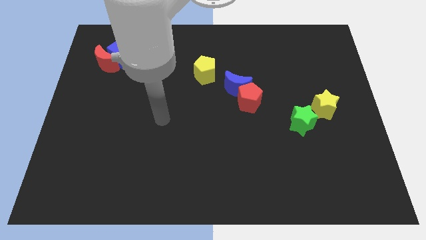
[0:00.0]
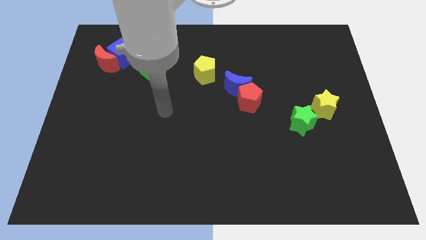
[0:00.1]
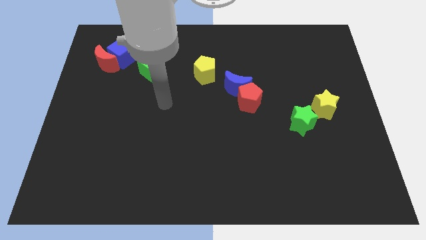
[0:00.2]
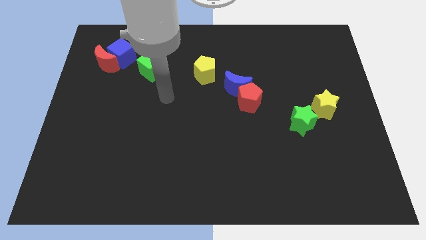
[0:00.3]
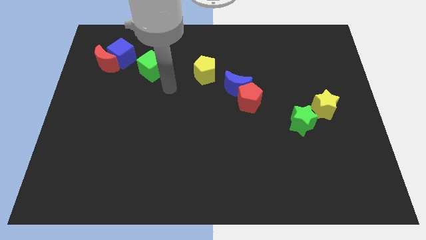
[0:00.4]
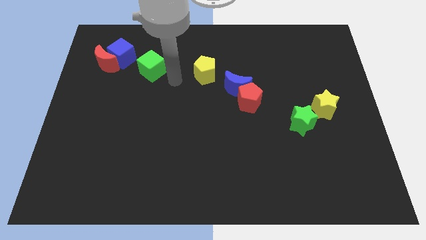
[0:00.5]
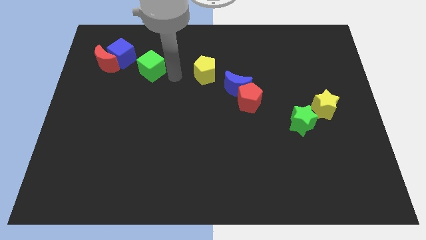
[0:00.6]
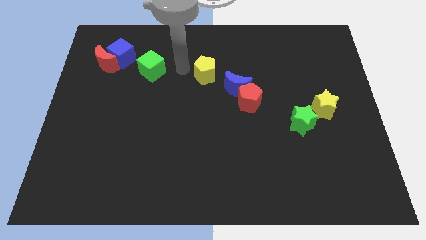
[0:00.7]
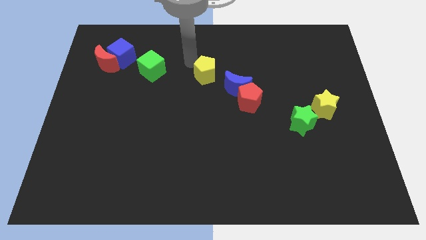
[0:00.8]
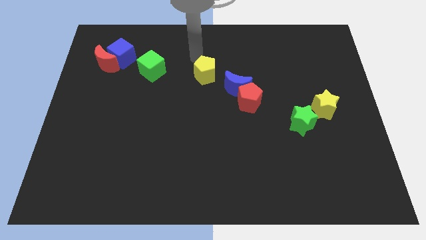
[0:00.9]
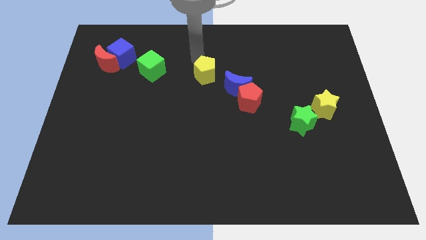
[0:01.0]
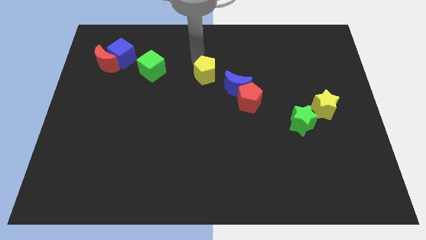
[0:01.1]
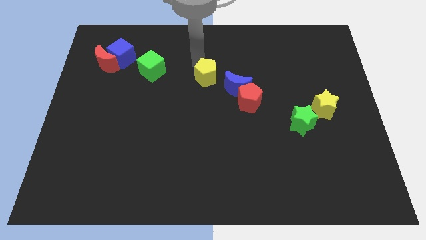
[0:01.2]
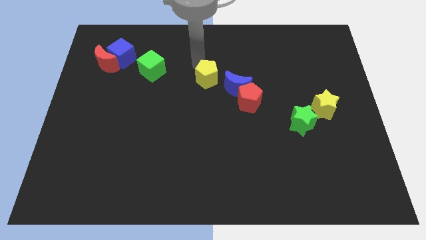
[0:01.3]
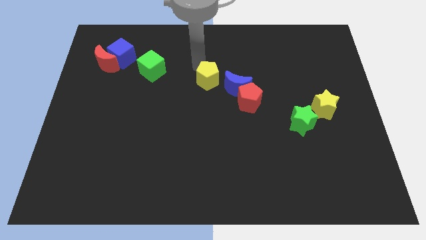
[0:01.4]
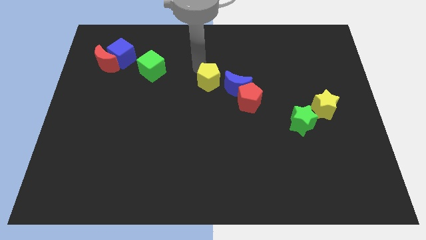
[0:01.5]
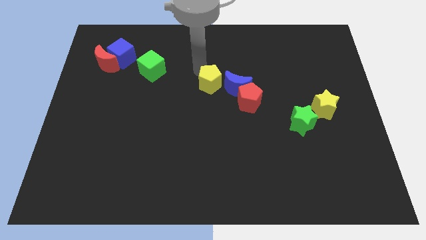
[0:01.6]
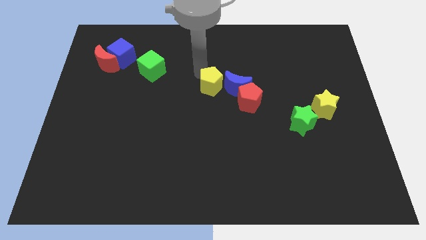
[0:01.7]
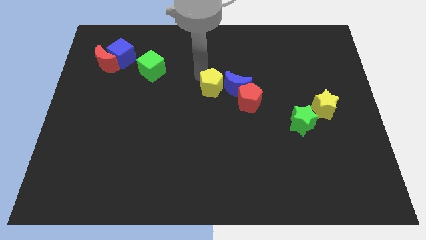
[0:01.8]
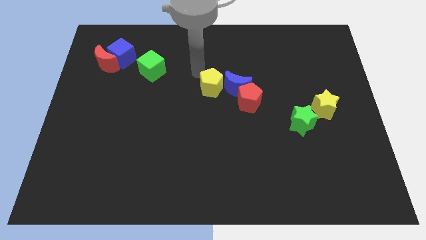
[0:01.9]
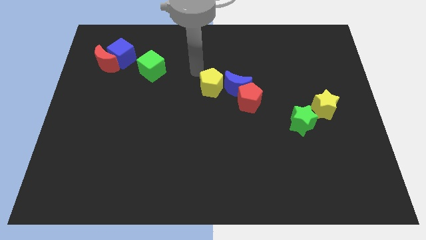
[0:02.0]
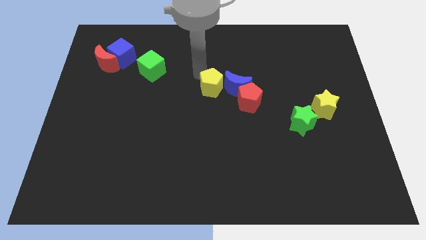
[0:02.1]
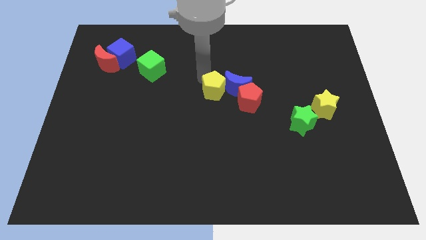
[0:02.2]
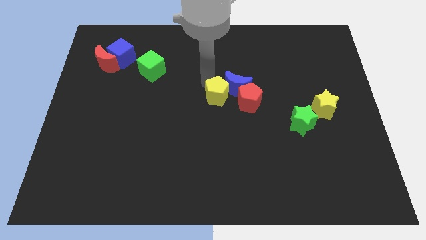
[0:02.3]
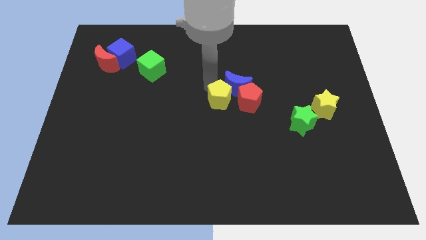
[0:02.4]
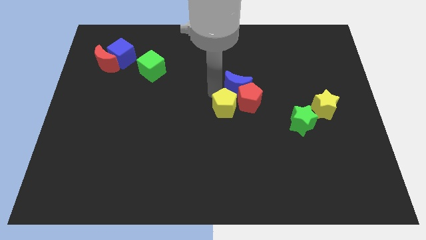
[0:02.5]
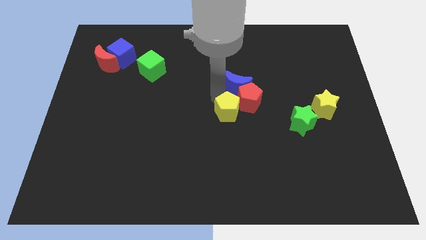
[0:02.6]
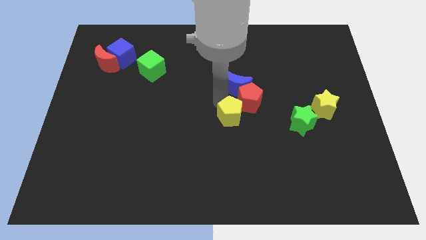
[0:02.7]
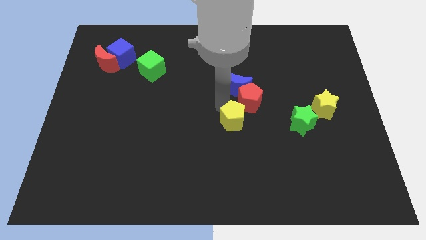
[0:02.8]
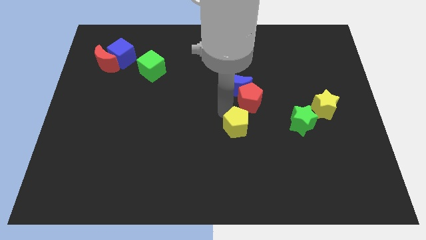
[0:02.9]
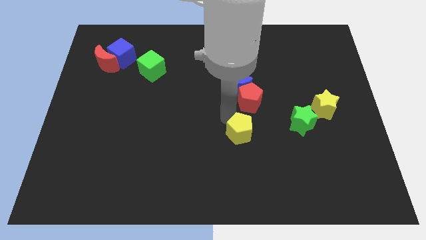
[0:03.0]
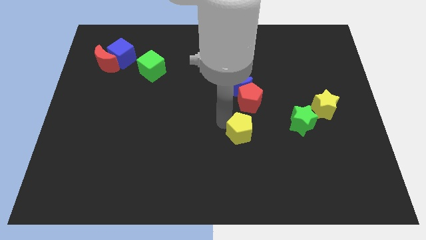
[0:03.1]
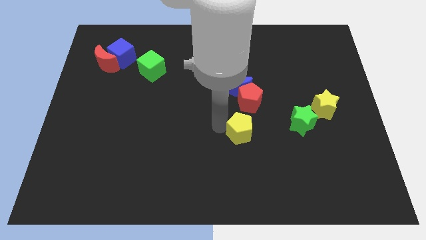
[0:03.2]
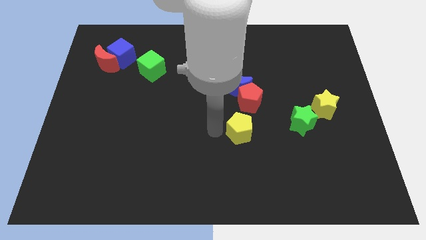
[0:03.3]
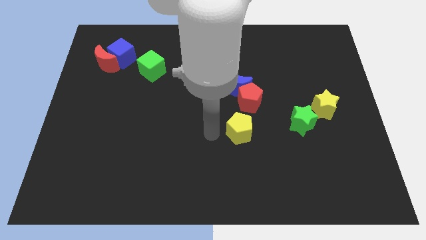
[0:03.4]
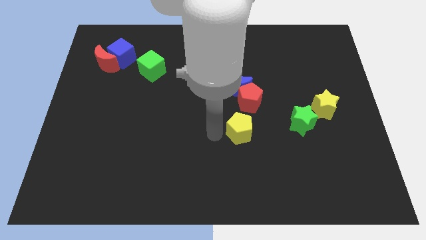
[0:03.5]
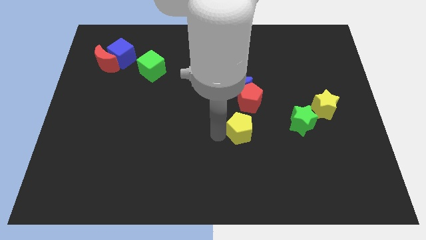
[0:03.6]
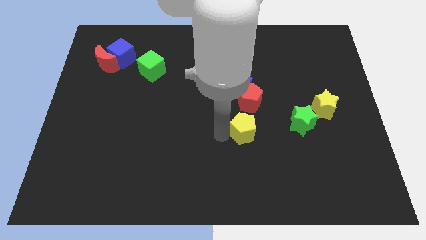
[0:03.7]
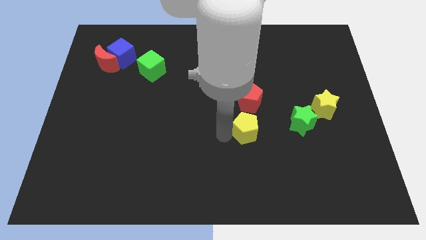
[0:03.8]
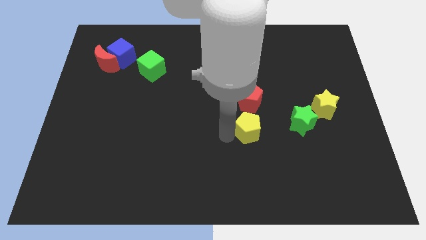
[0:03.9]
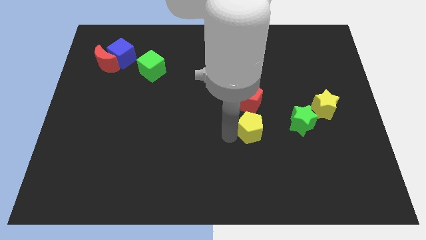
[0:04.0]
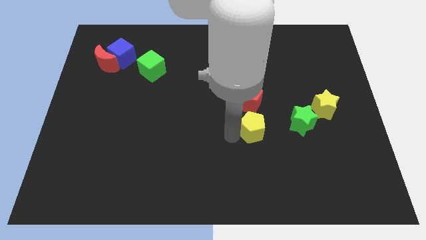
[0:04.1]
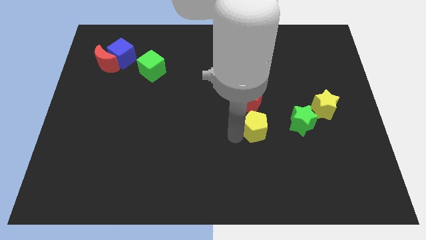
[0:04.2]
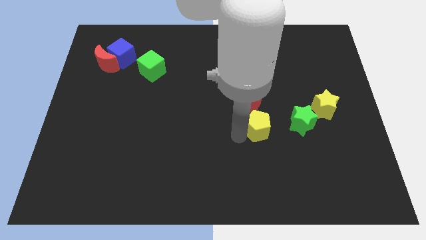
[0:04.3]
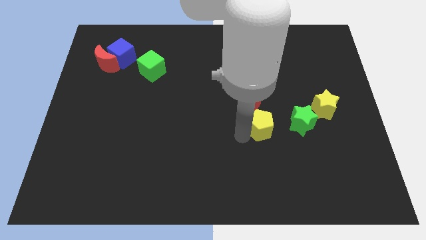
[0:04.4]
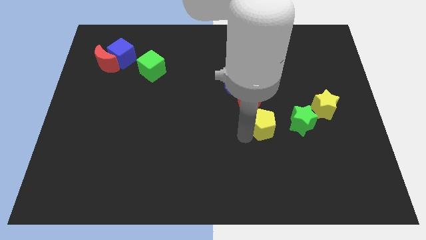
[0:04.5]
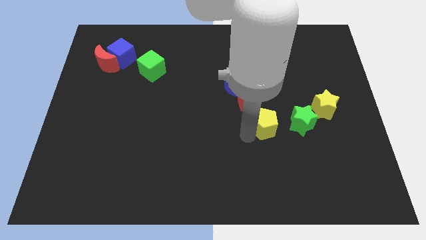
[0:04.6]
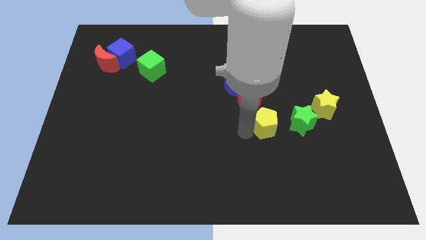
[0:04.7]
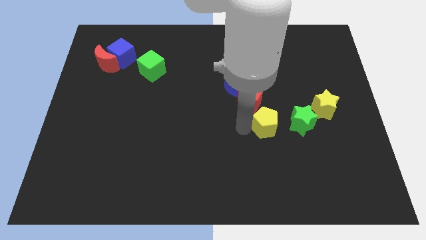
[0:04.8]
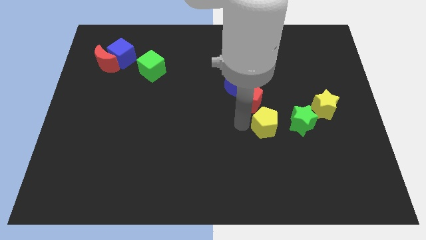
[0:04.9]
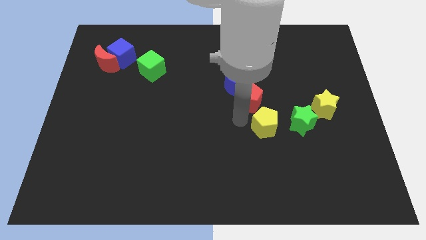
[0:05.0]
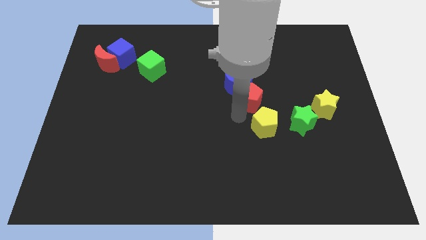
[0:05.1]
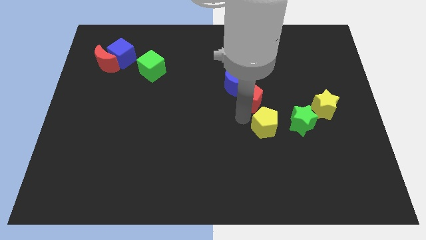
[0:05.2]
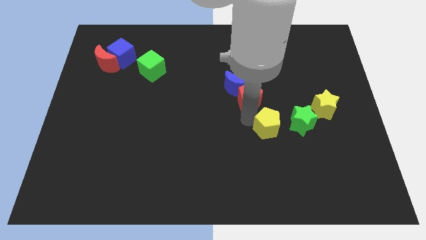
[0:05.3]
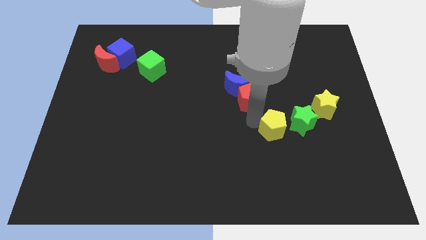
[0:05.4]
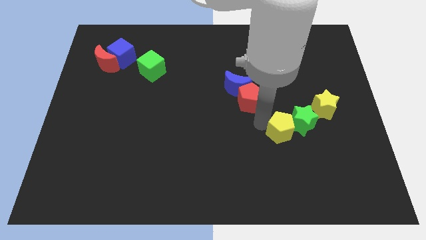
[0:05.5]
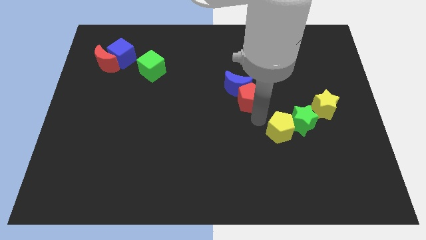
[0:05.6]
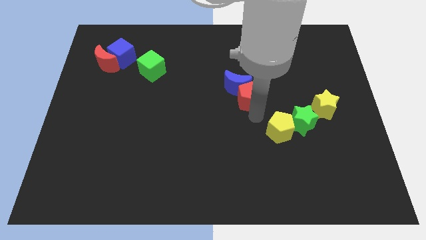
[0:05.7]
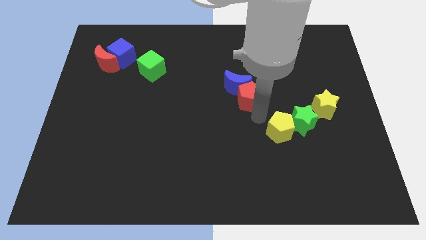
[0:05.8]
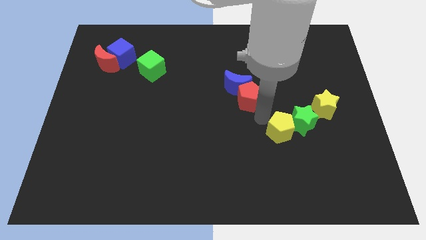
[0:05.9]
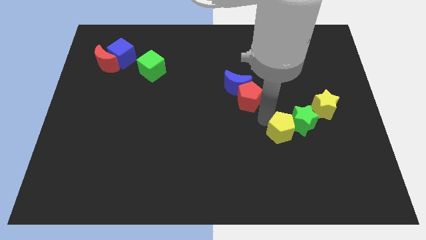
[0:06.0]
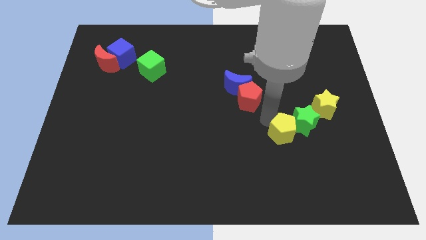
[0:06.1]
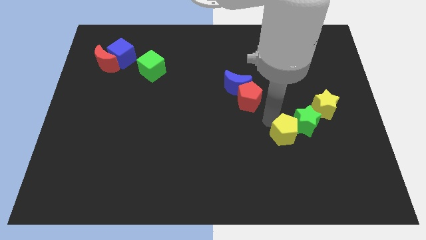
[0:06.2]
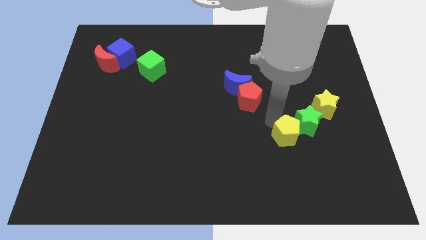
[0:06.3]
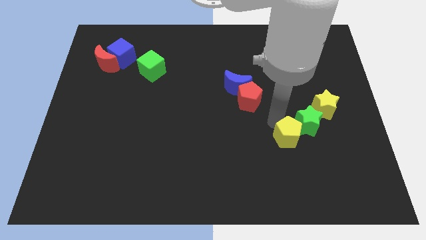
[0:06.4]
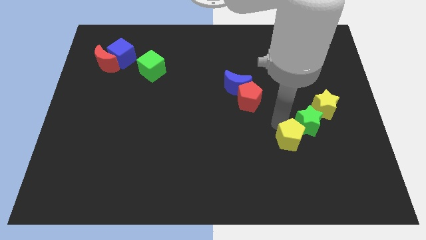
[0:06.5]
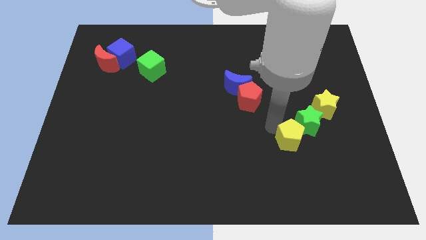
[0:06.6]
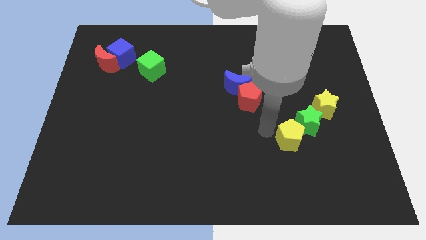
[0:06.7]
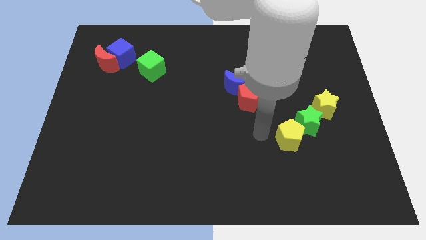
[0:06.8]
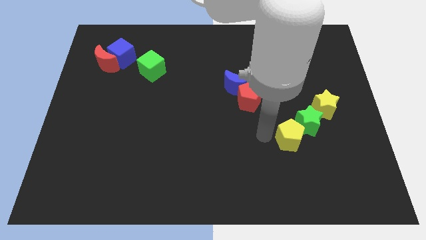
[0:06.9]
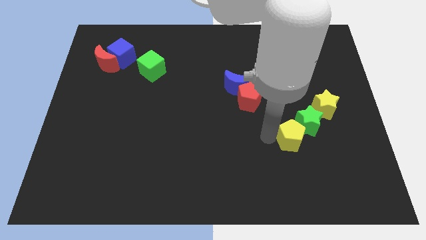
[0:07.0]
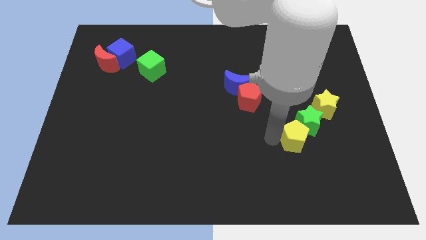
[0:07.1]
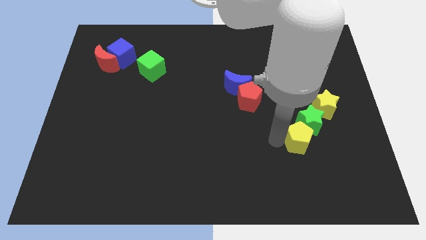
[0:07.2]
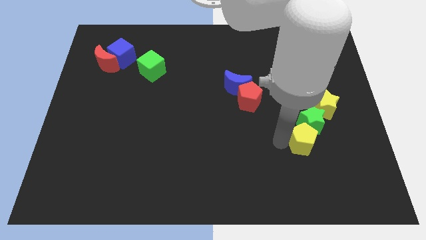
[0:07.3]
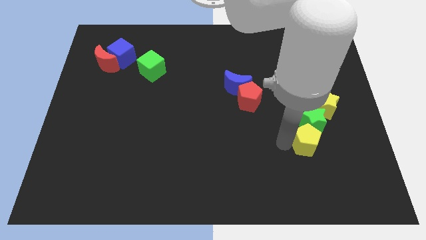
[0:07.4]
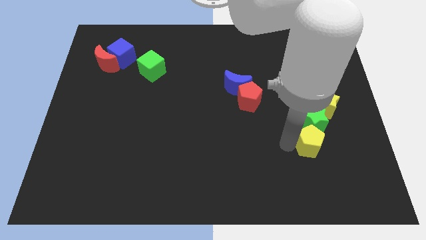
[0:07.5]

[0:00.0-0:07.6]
slide the yellow pentagon to the bottom right of the green star
